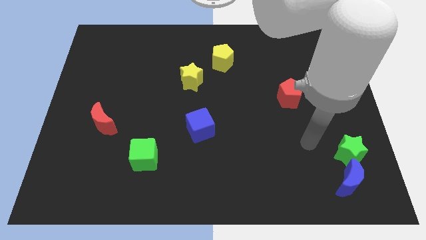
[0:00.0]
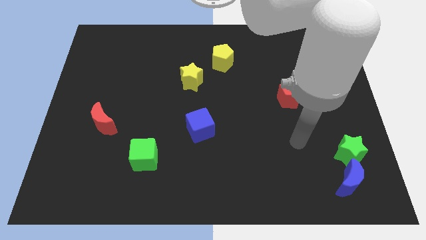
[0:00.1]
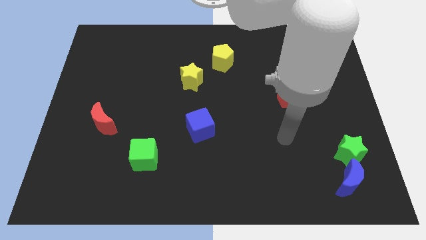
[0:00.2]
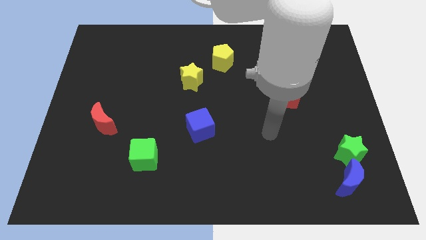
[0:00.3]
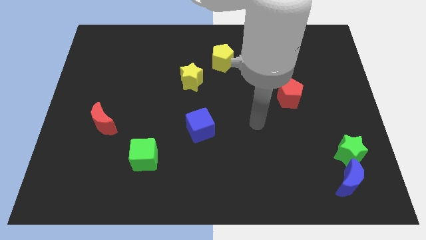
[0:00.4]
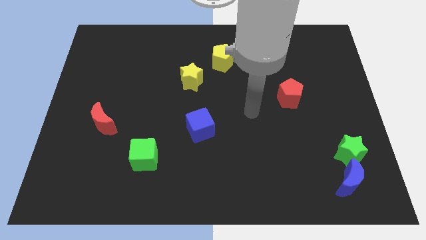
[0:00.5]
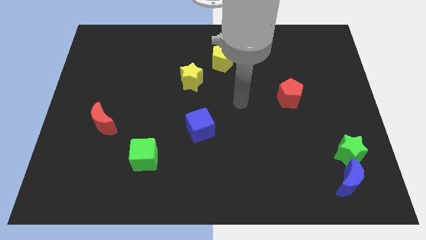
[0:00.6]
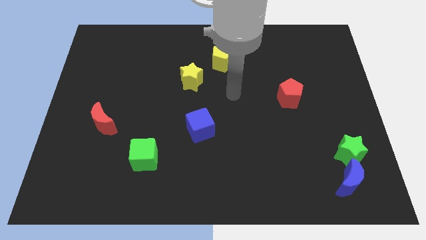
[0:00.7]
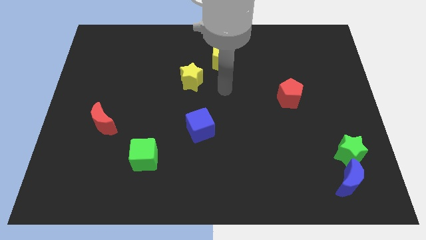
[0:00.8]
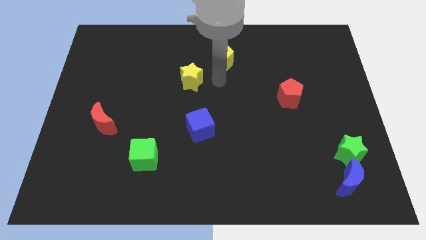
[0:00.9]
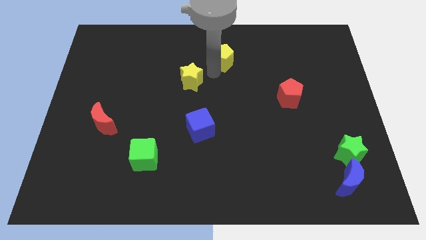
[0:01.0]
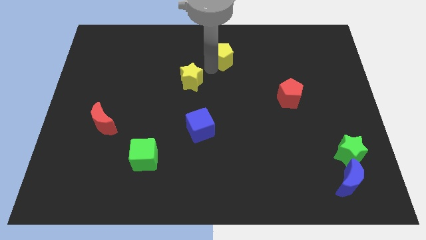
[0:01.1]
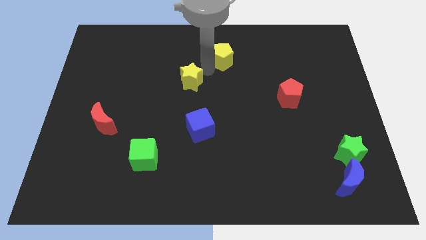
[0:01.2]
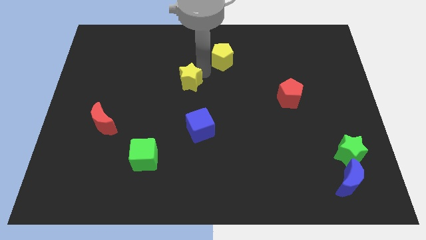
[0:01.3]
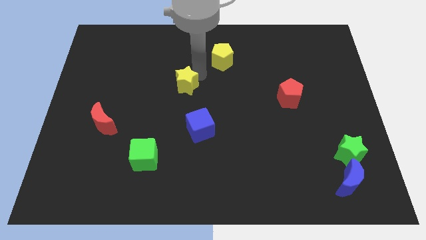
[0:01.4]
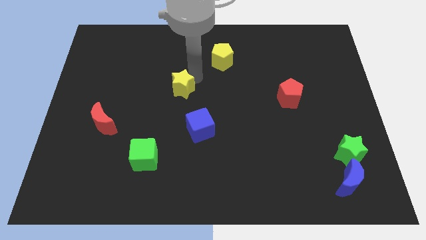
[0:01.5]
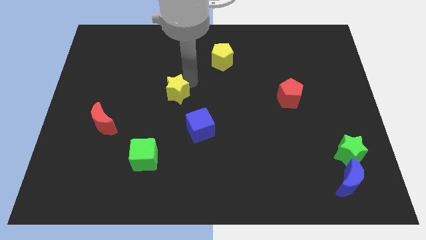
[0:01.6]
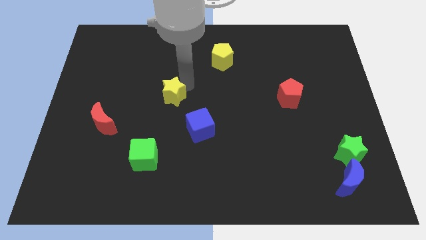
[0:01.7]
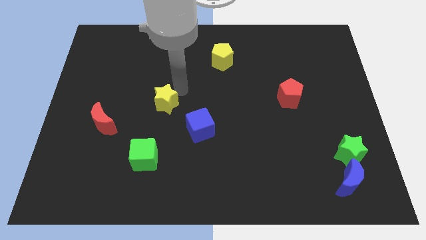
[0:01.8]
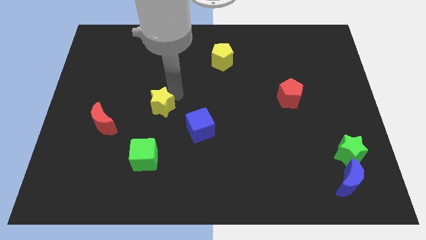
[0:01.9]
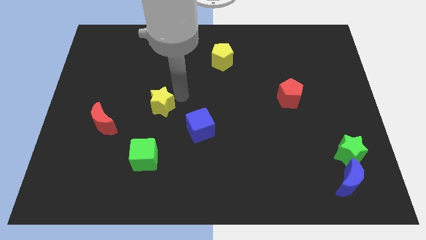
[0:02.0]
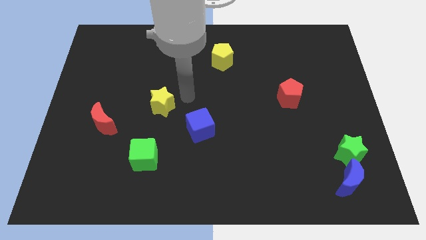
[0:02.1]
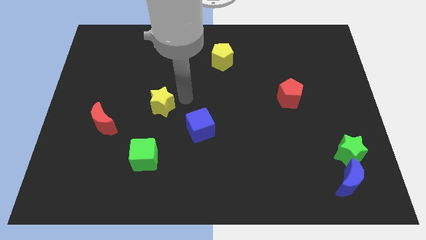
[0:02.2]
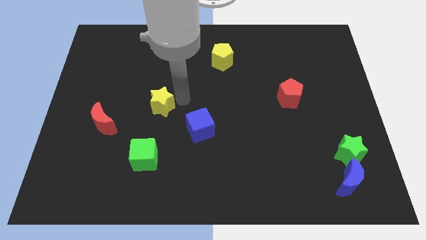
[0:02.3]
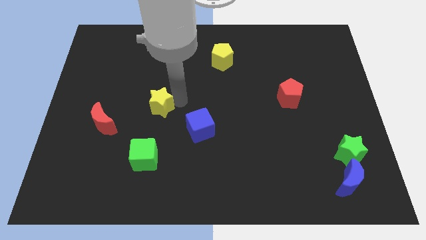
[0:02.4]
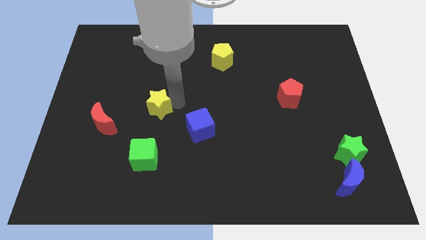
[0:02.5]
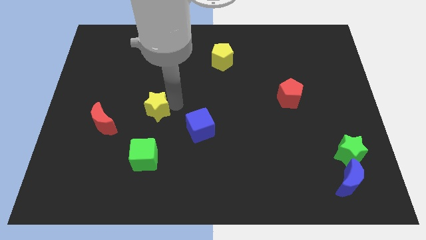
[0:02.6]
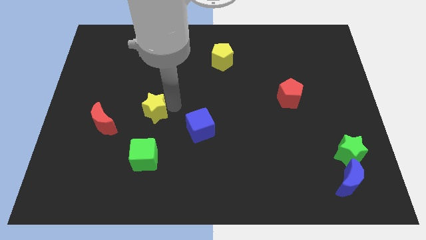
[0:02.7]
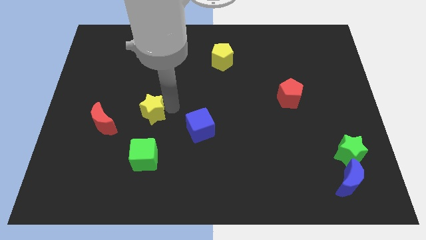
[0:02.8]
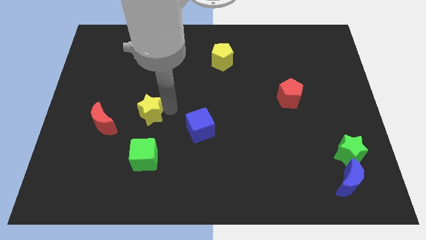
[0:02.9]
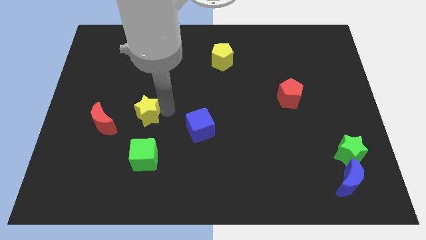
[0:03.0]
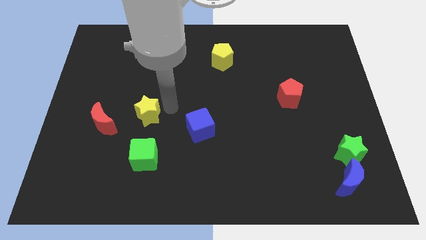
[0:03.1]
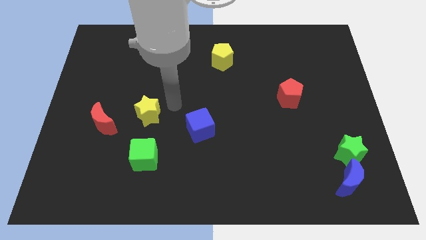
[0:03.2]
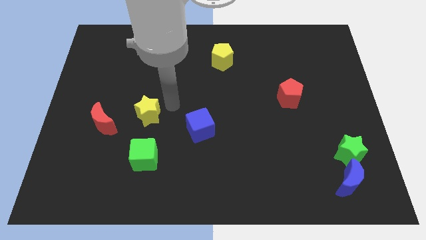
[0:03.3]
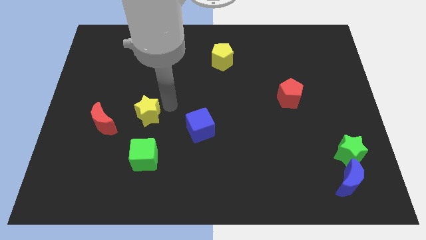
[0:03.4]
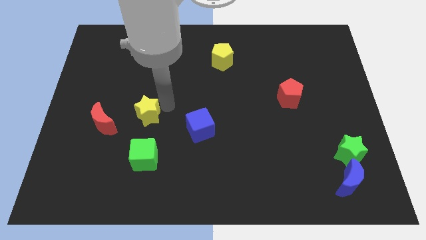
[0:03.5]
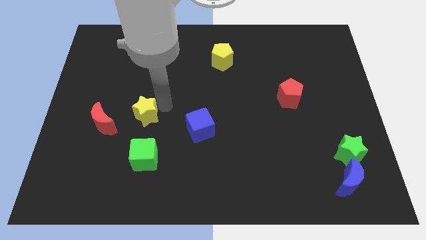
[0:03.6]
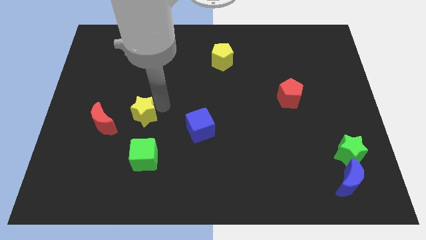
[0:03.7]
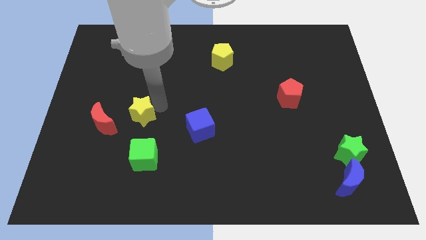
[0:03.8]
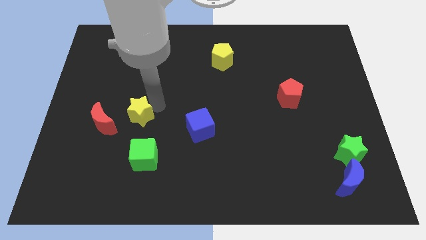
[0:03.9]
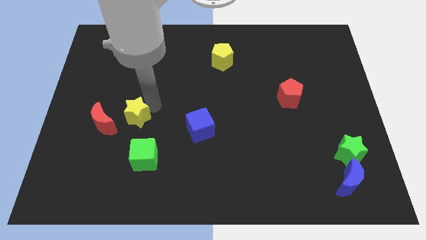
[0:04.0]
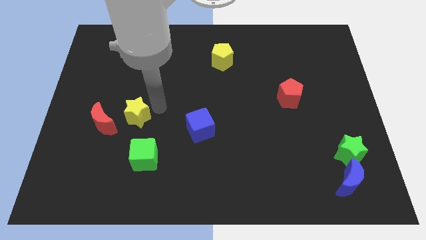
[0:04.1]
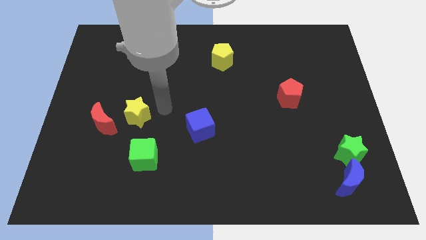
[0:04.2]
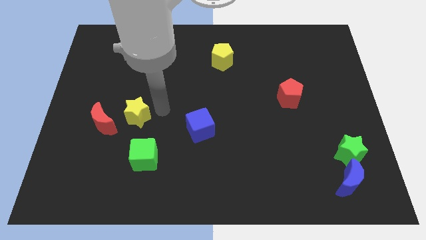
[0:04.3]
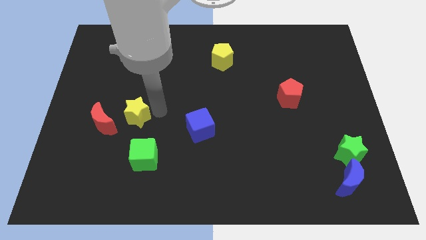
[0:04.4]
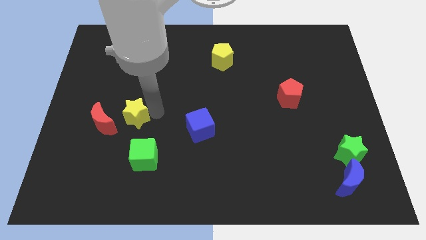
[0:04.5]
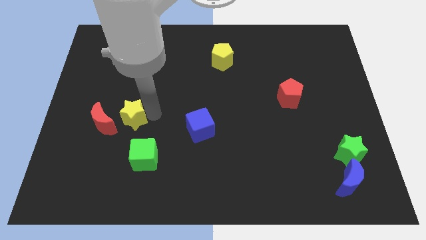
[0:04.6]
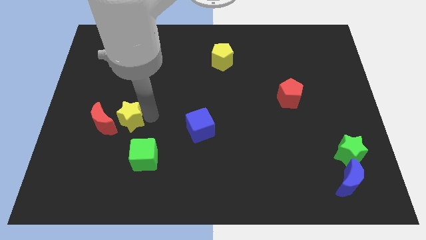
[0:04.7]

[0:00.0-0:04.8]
slide the yellow star to the red moon

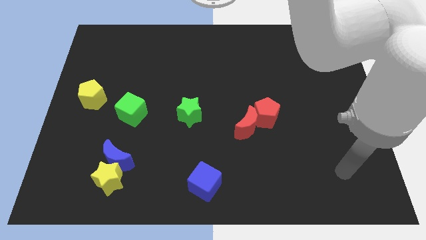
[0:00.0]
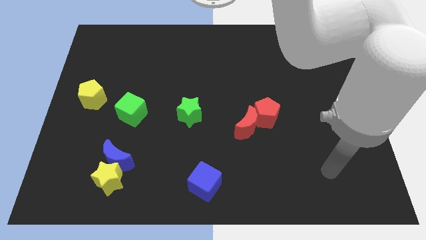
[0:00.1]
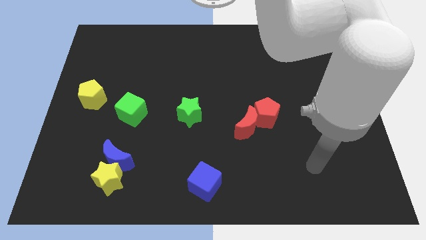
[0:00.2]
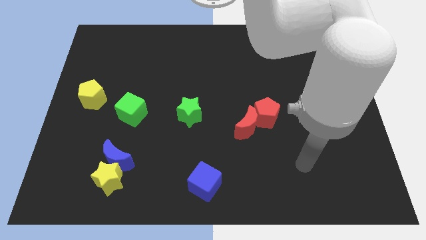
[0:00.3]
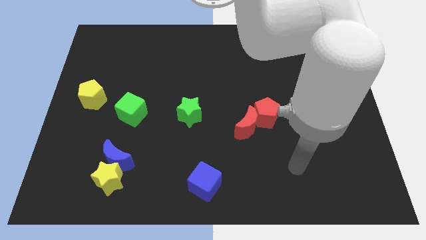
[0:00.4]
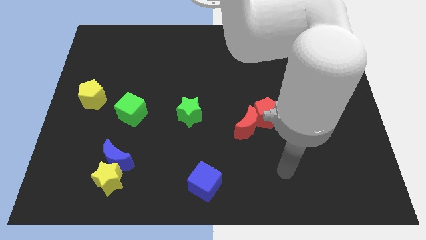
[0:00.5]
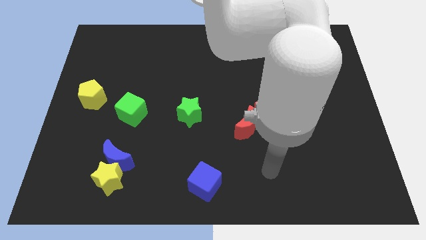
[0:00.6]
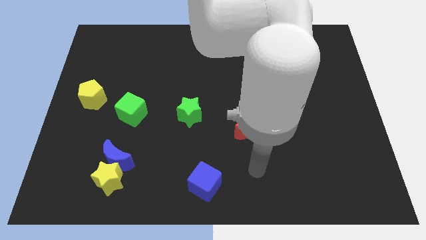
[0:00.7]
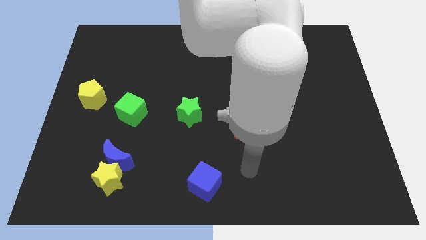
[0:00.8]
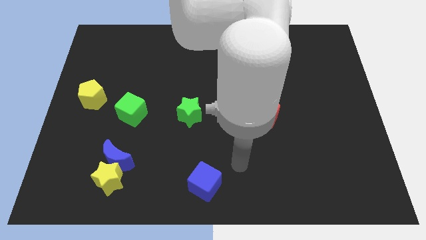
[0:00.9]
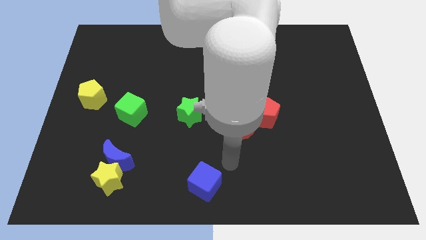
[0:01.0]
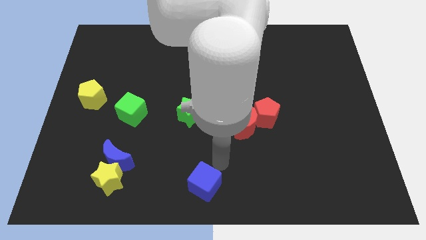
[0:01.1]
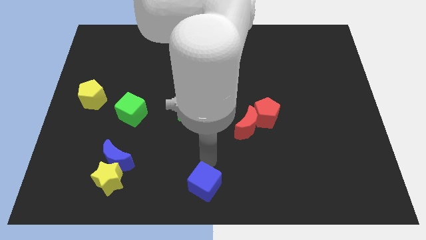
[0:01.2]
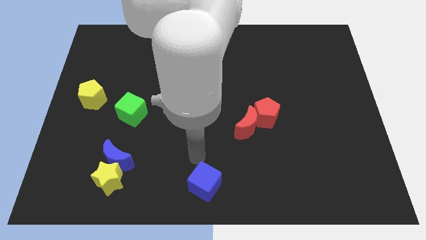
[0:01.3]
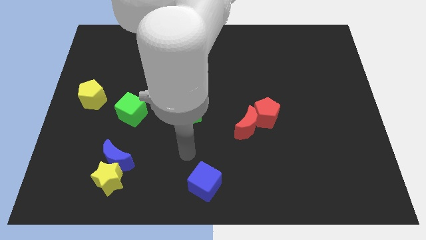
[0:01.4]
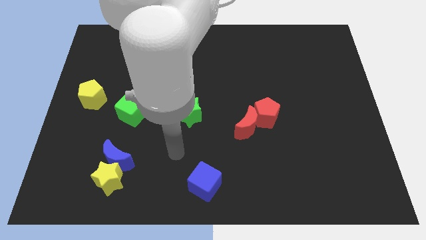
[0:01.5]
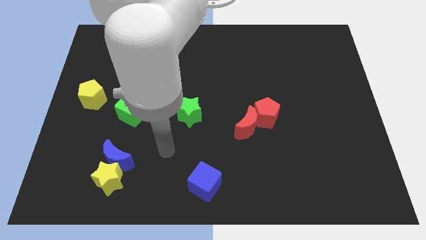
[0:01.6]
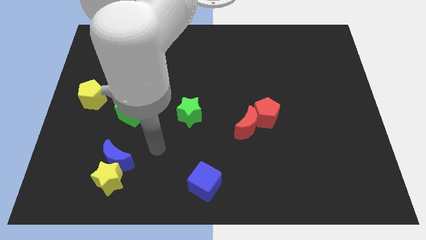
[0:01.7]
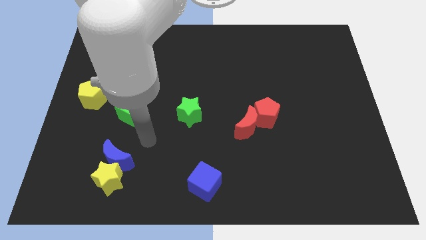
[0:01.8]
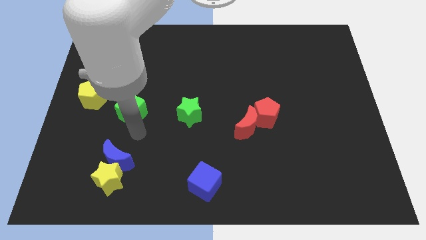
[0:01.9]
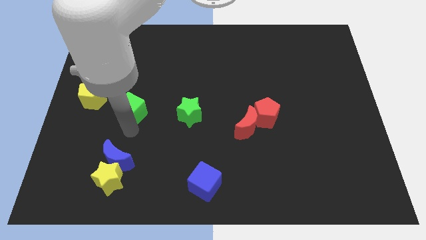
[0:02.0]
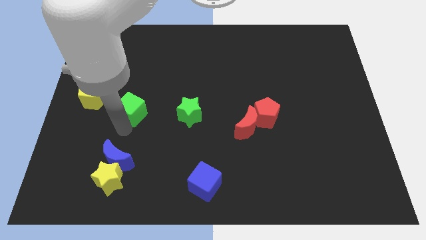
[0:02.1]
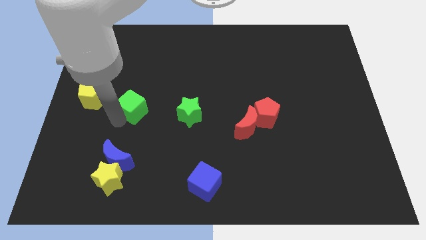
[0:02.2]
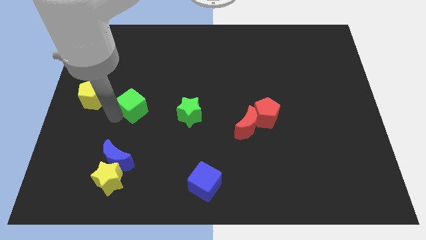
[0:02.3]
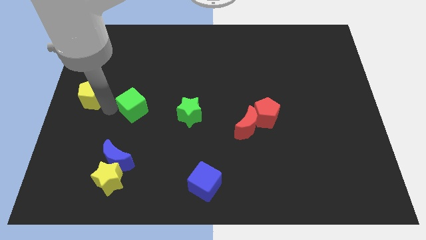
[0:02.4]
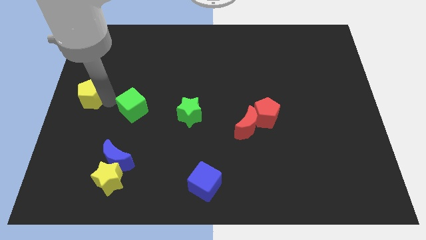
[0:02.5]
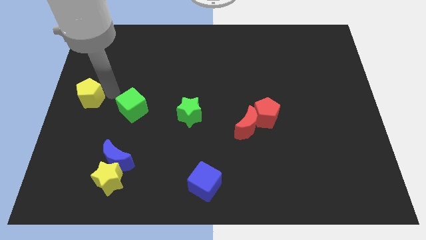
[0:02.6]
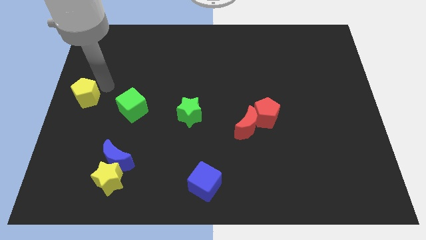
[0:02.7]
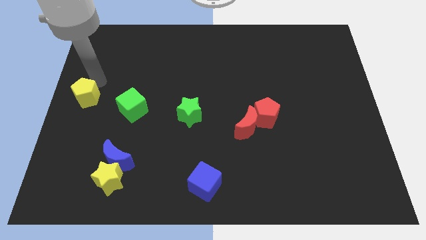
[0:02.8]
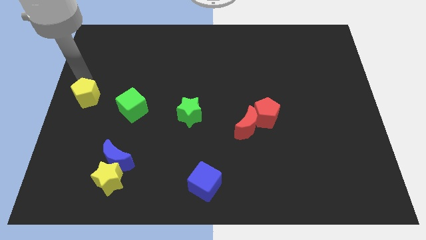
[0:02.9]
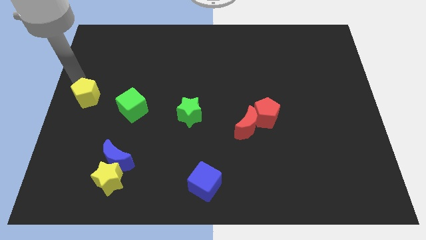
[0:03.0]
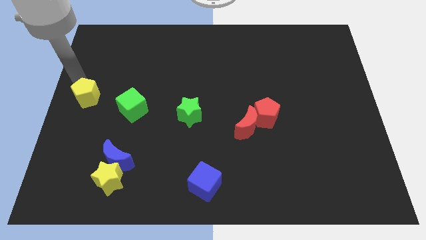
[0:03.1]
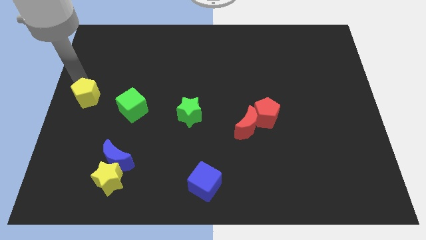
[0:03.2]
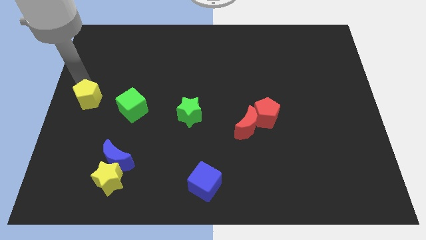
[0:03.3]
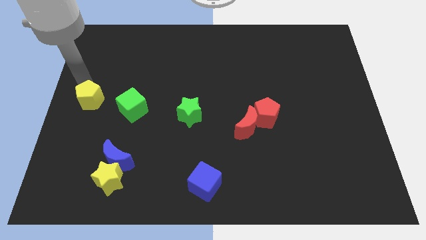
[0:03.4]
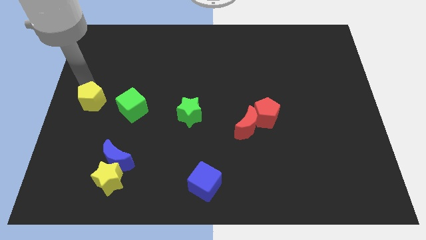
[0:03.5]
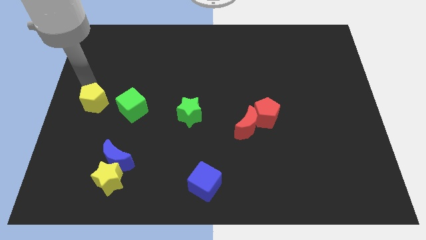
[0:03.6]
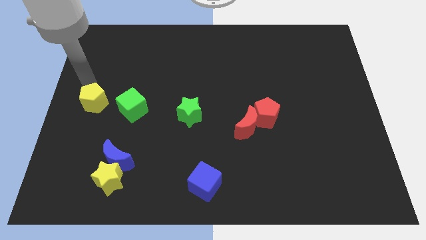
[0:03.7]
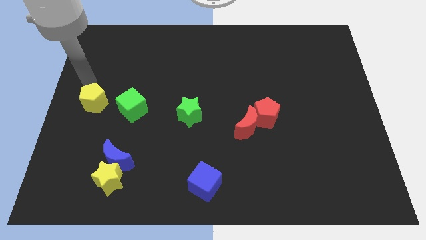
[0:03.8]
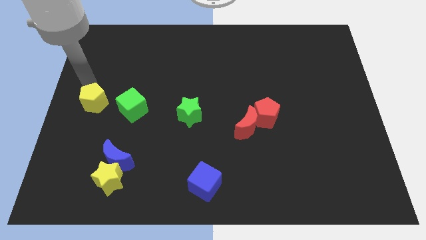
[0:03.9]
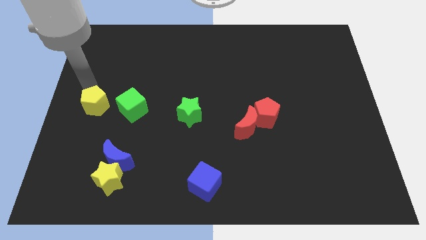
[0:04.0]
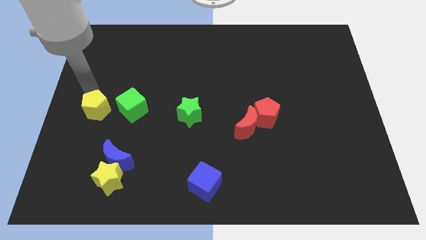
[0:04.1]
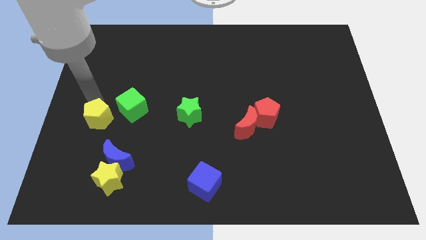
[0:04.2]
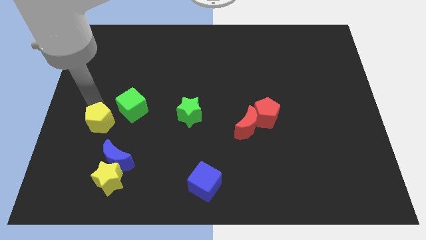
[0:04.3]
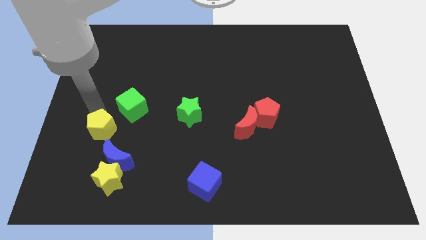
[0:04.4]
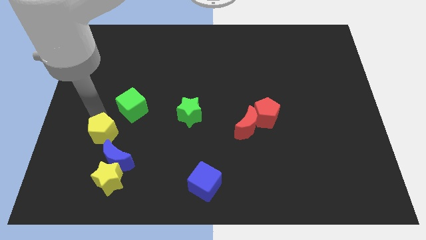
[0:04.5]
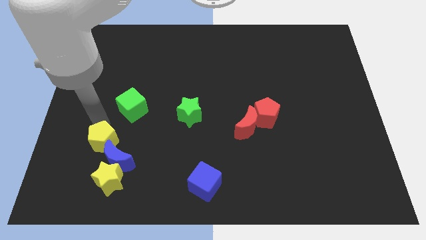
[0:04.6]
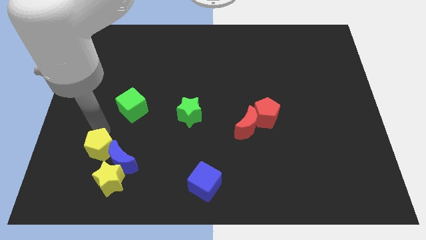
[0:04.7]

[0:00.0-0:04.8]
put the yellow pentagon towards the blue moon
